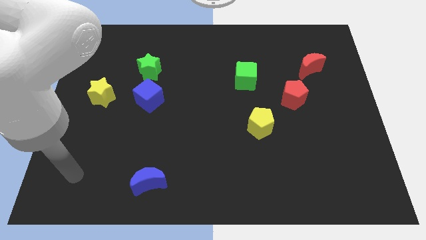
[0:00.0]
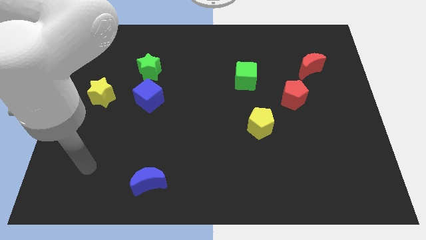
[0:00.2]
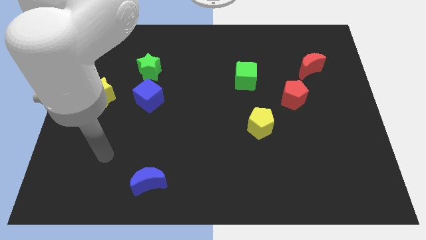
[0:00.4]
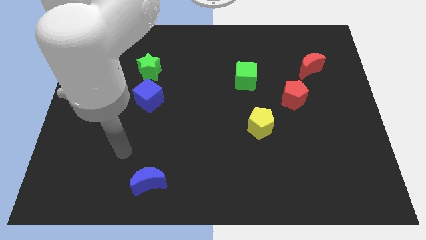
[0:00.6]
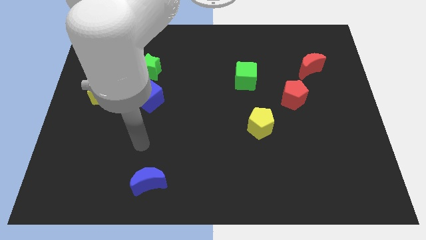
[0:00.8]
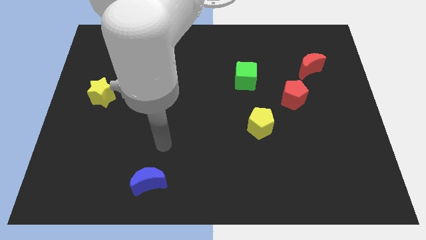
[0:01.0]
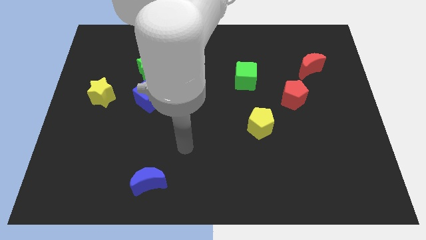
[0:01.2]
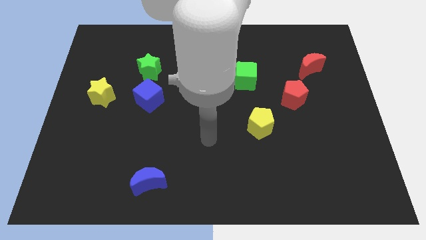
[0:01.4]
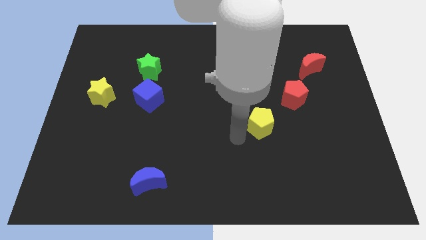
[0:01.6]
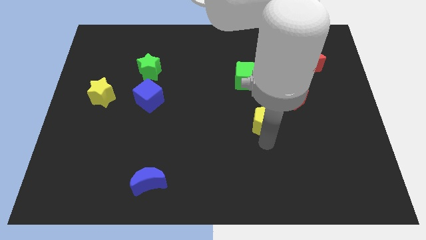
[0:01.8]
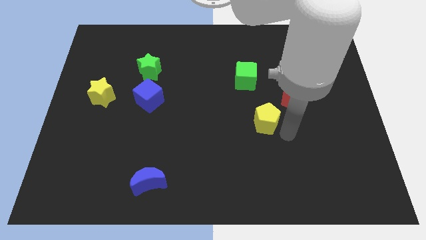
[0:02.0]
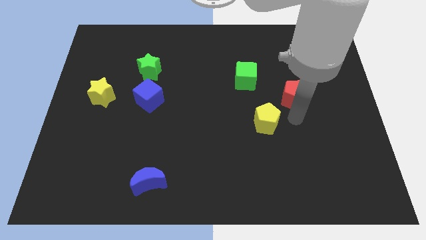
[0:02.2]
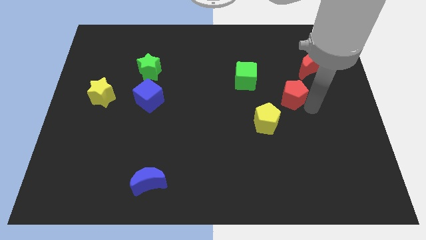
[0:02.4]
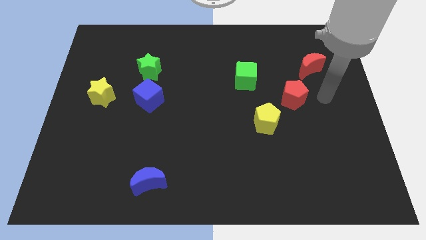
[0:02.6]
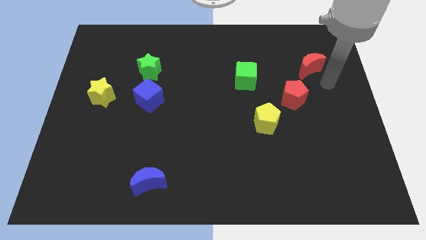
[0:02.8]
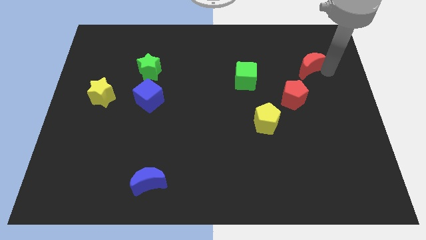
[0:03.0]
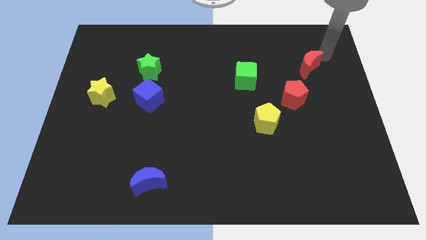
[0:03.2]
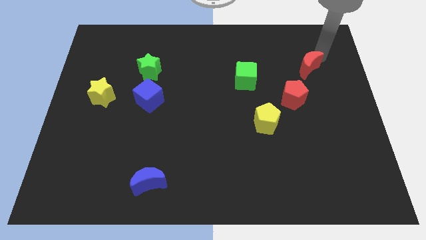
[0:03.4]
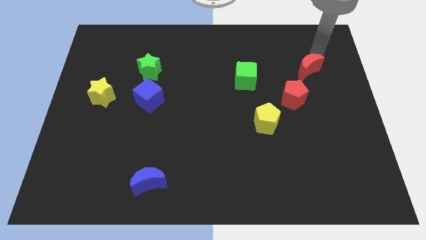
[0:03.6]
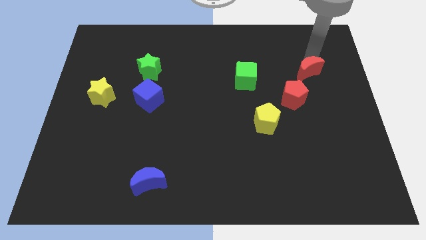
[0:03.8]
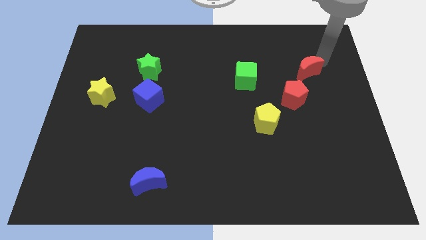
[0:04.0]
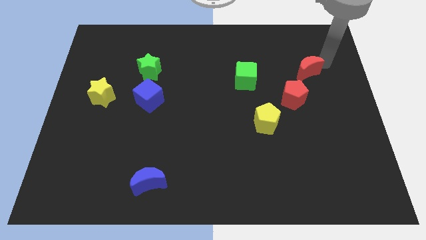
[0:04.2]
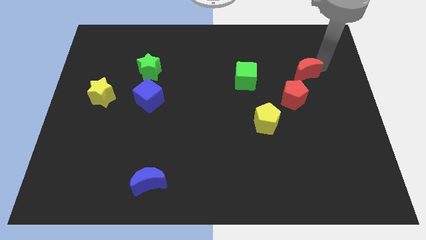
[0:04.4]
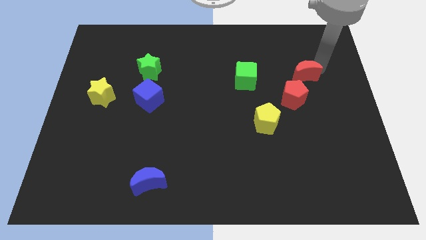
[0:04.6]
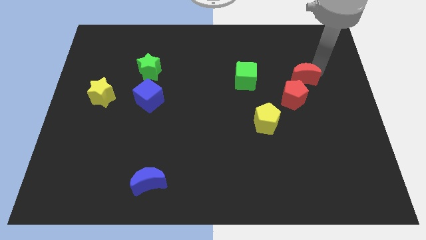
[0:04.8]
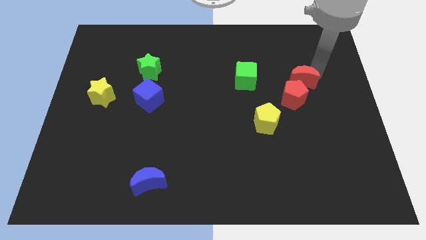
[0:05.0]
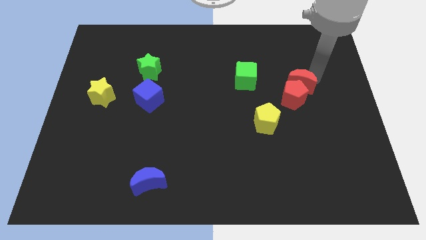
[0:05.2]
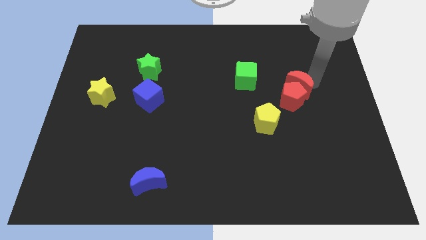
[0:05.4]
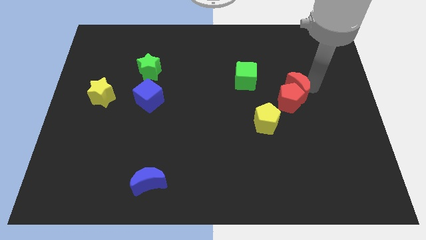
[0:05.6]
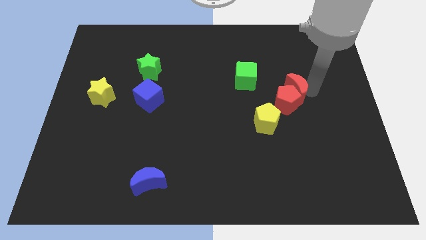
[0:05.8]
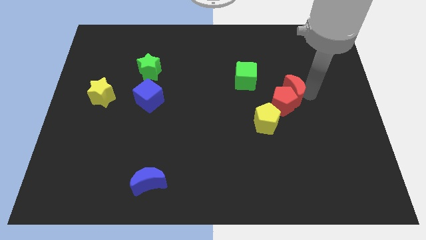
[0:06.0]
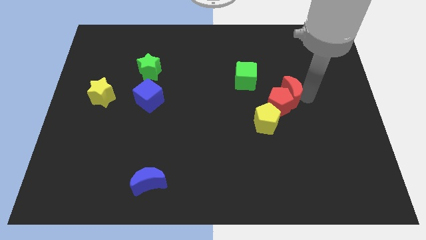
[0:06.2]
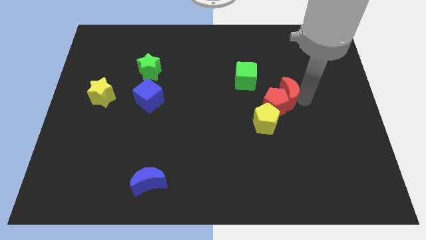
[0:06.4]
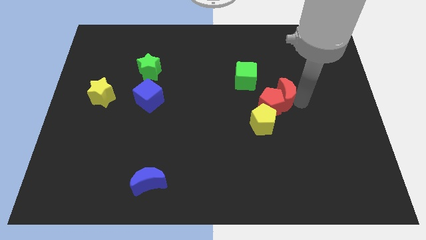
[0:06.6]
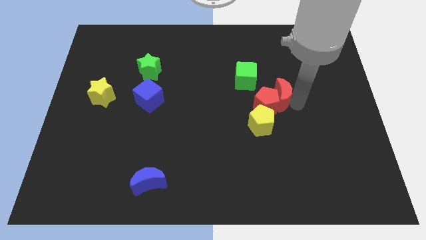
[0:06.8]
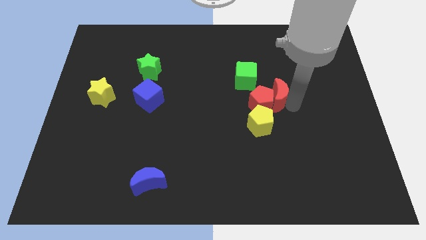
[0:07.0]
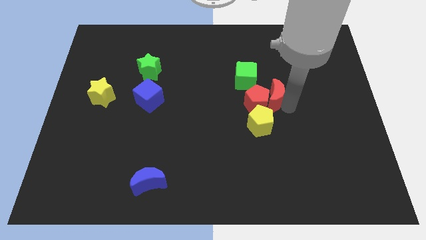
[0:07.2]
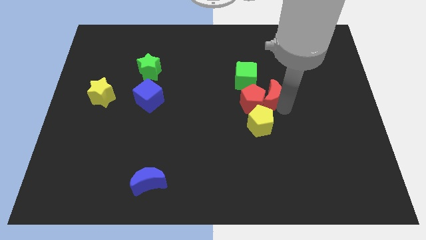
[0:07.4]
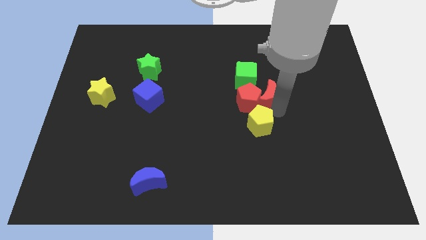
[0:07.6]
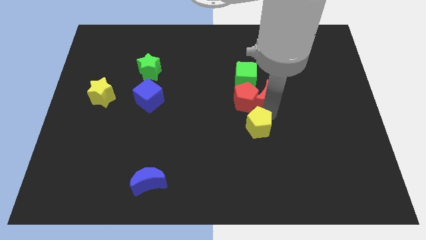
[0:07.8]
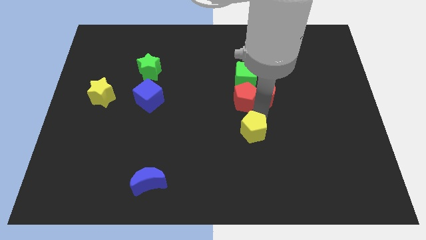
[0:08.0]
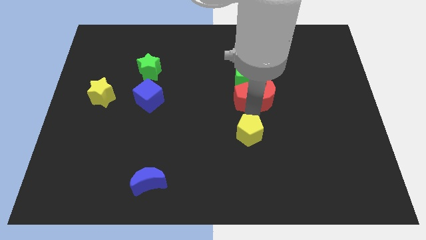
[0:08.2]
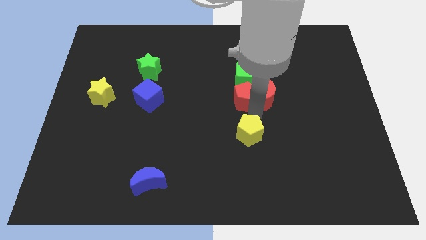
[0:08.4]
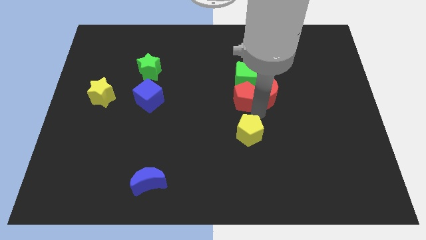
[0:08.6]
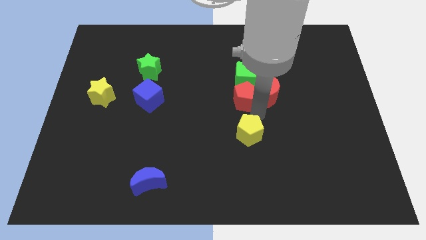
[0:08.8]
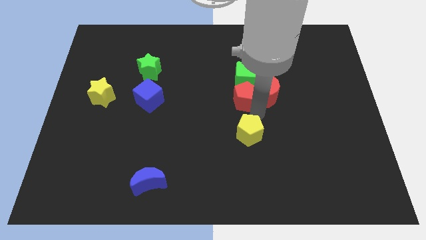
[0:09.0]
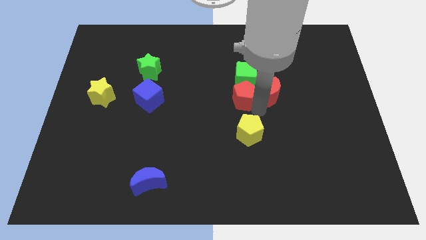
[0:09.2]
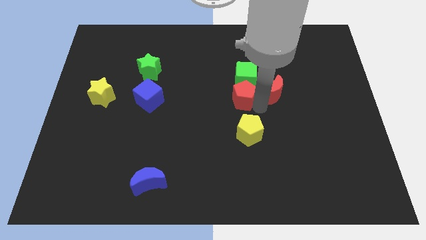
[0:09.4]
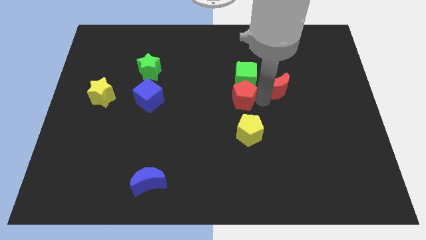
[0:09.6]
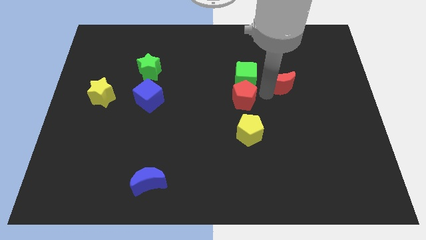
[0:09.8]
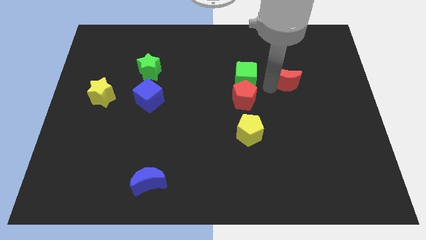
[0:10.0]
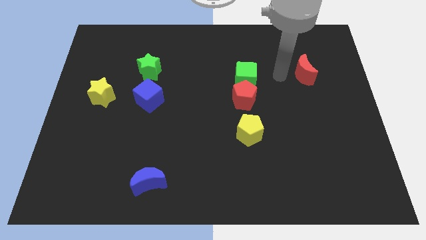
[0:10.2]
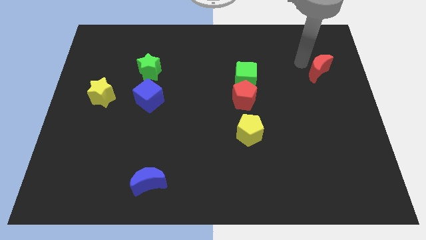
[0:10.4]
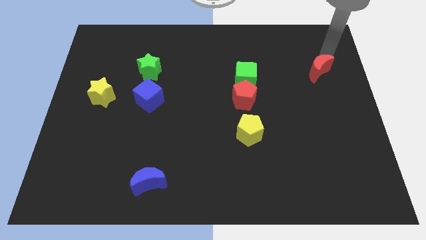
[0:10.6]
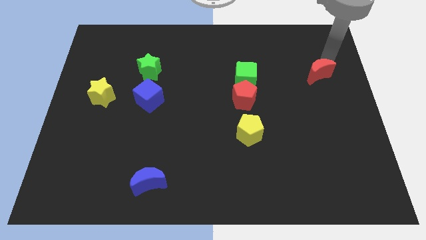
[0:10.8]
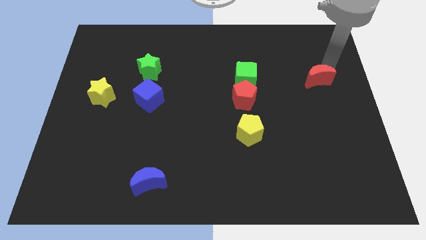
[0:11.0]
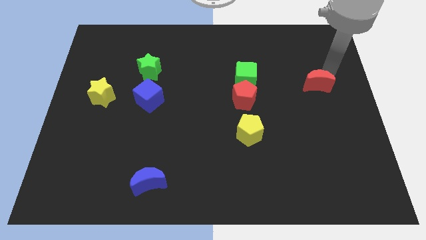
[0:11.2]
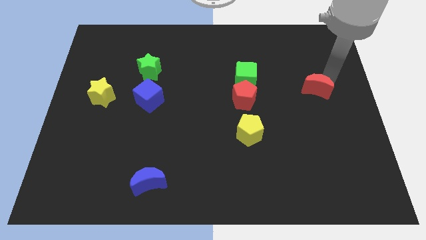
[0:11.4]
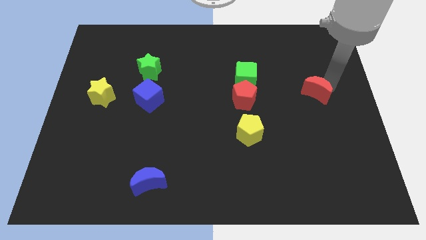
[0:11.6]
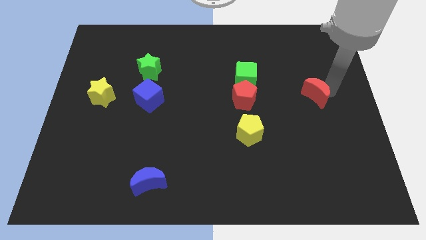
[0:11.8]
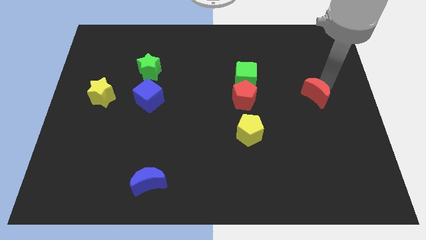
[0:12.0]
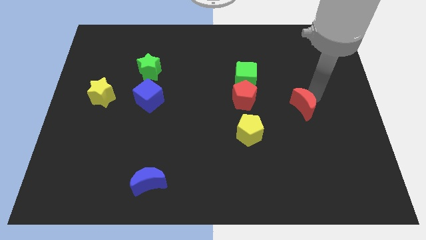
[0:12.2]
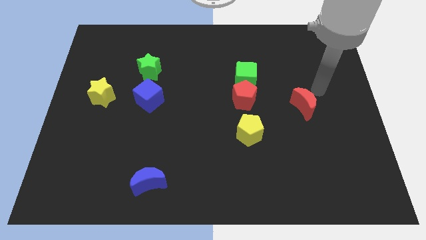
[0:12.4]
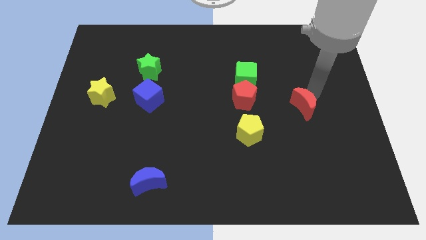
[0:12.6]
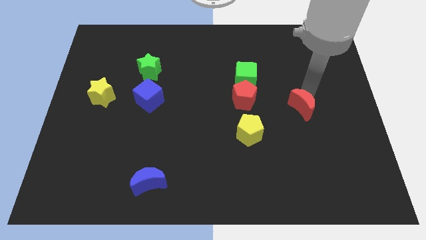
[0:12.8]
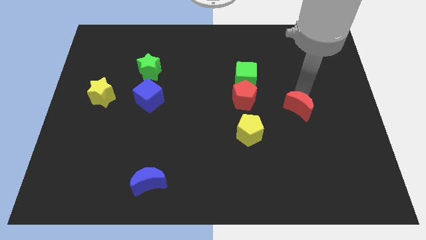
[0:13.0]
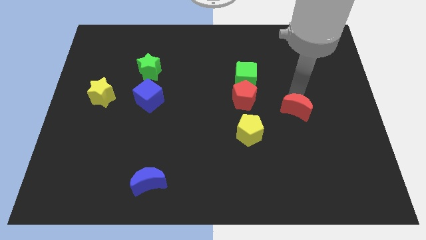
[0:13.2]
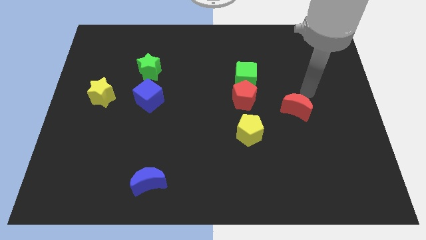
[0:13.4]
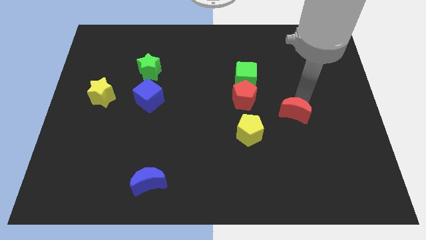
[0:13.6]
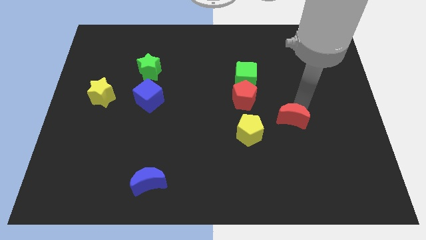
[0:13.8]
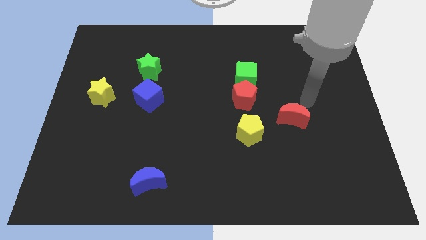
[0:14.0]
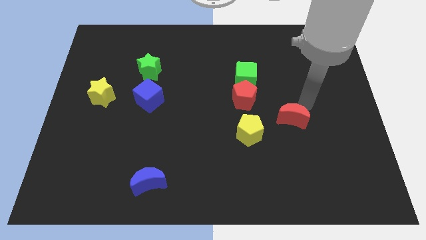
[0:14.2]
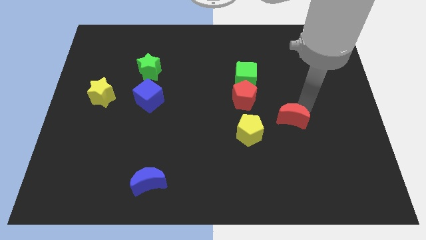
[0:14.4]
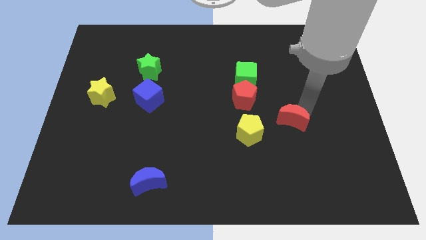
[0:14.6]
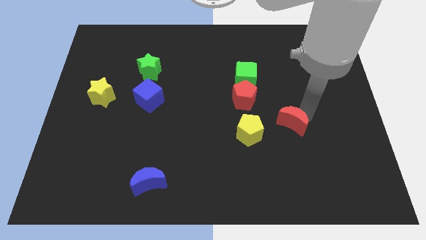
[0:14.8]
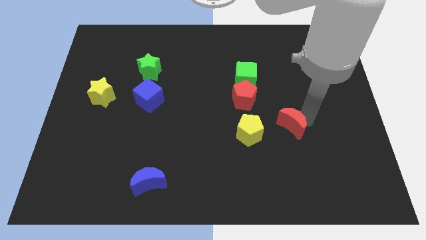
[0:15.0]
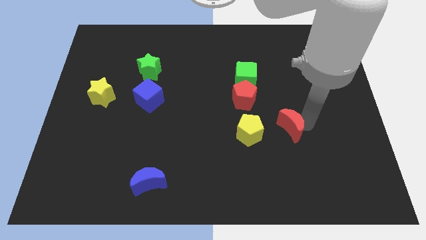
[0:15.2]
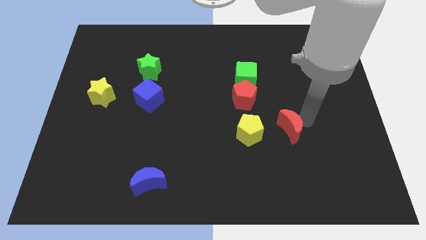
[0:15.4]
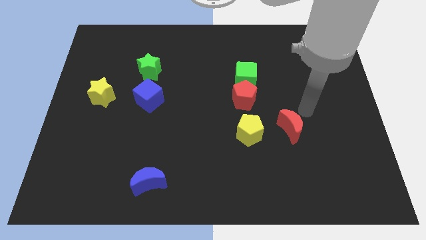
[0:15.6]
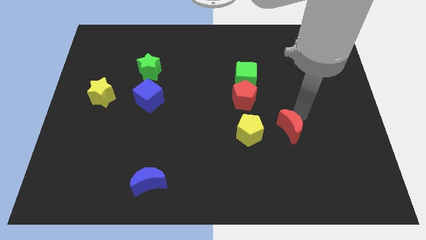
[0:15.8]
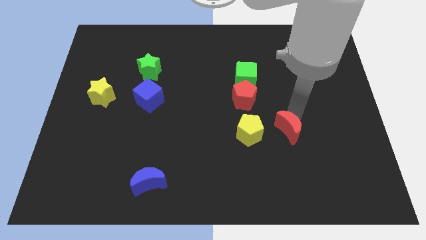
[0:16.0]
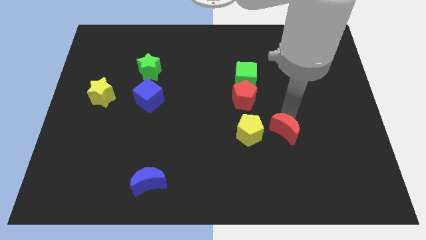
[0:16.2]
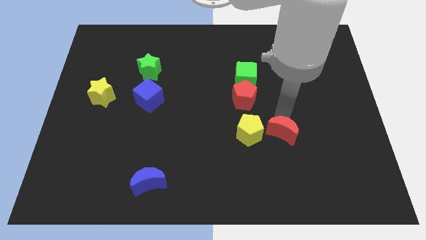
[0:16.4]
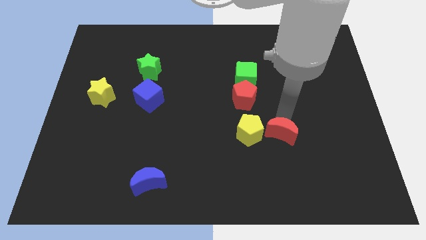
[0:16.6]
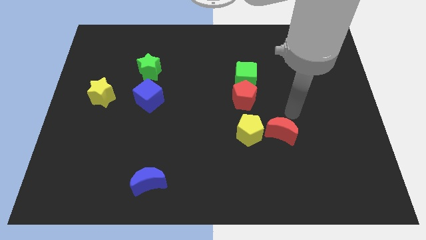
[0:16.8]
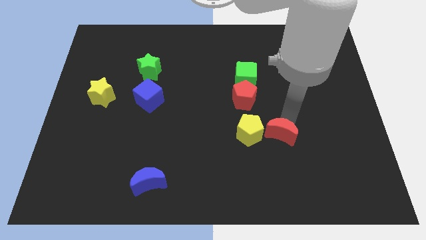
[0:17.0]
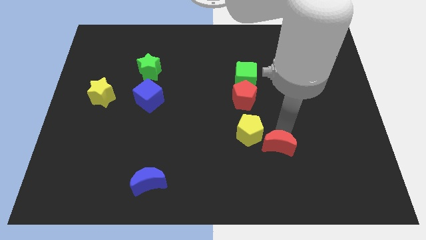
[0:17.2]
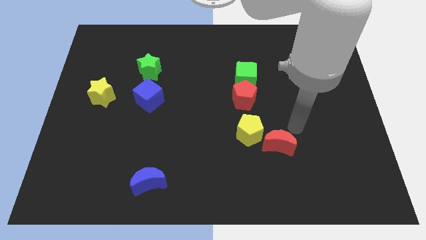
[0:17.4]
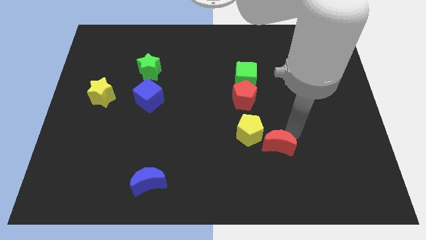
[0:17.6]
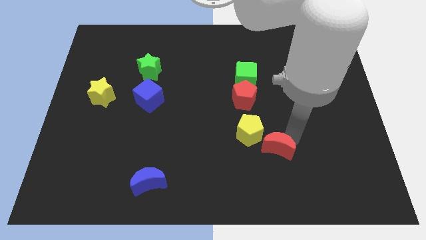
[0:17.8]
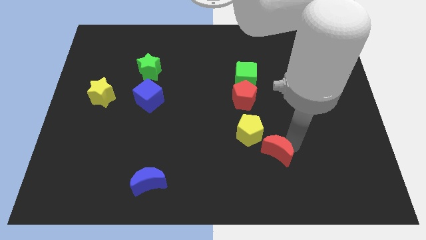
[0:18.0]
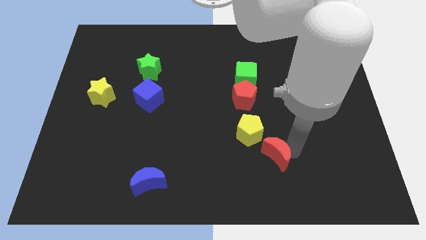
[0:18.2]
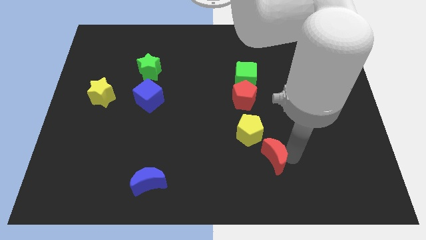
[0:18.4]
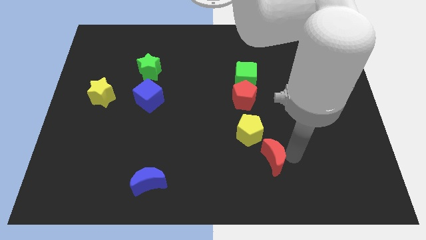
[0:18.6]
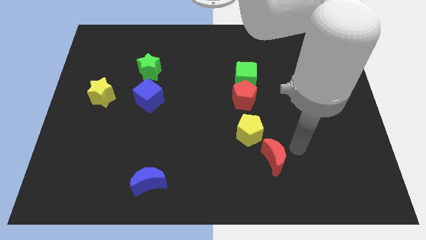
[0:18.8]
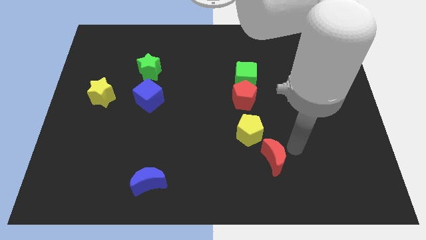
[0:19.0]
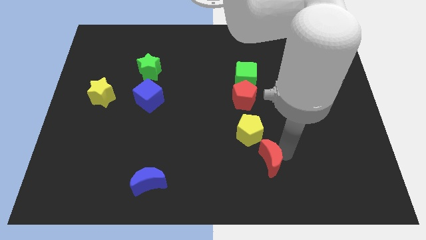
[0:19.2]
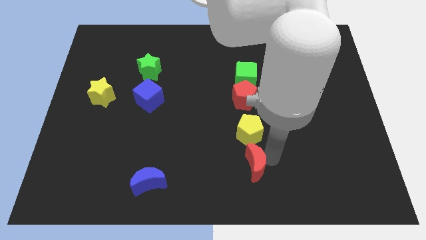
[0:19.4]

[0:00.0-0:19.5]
slide the red moon to the bottom
